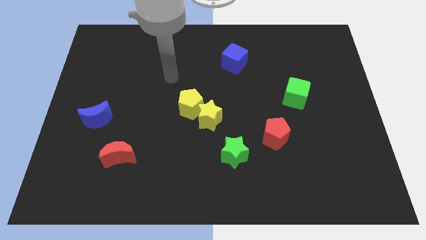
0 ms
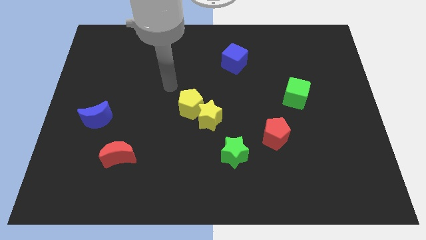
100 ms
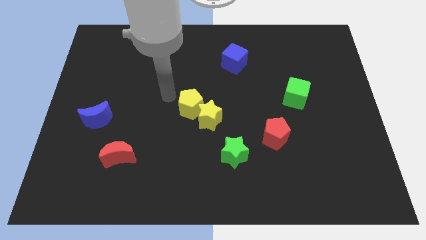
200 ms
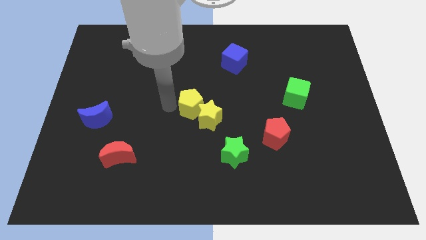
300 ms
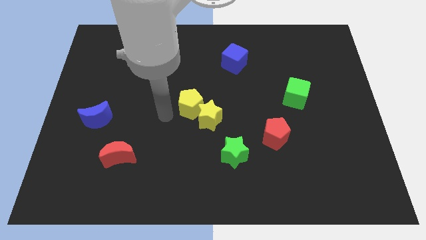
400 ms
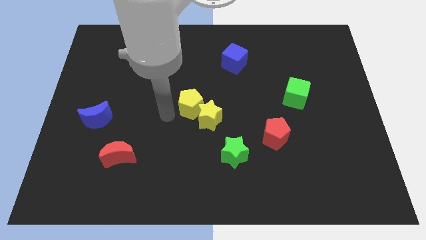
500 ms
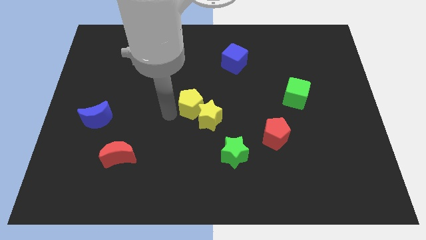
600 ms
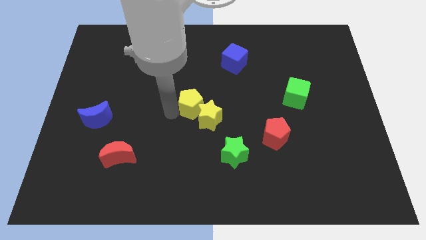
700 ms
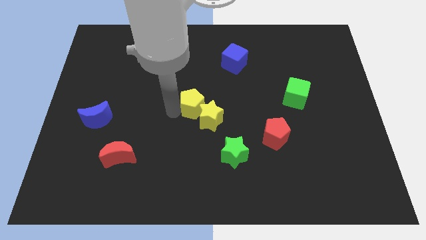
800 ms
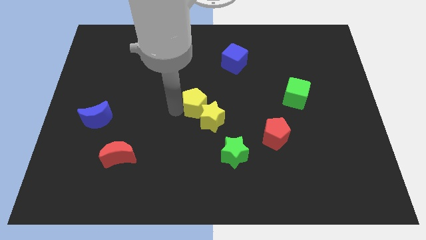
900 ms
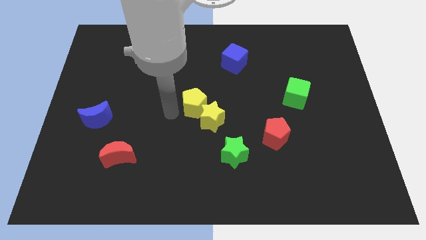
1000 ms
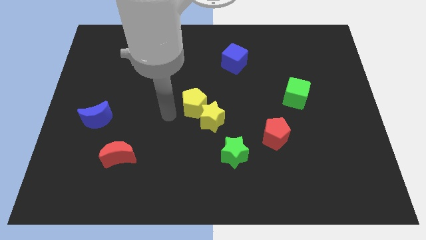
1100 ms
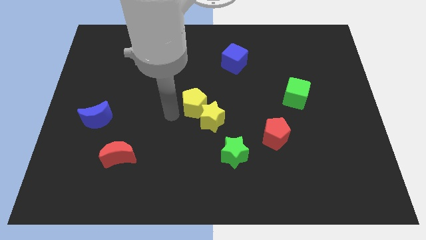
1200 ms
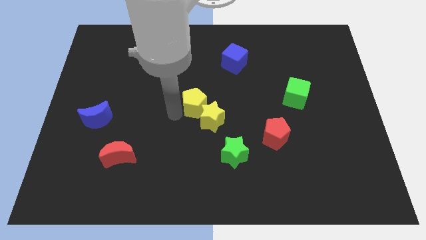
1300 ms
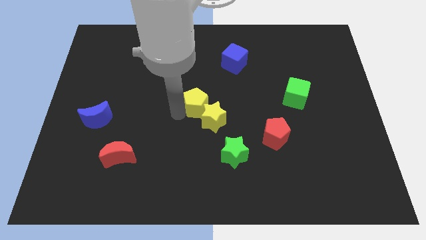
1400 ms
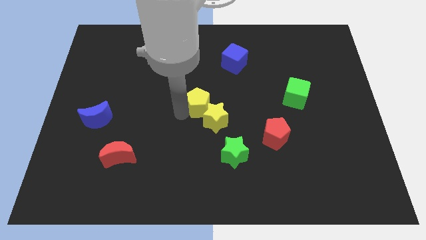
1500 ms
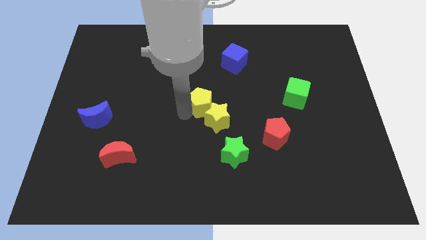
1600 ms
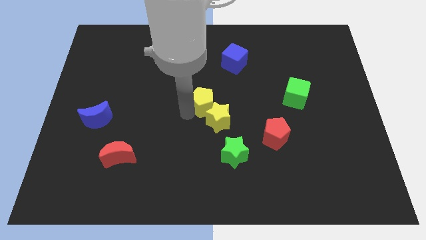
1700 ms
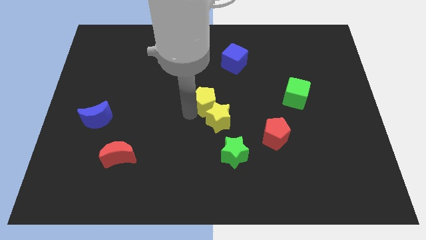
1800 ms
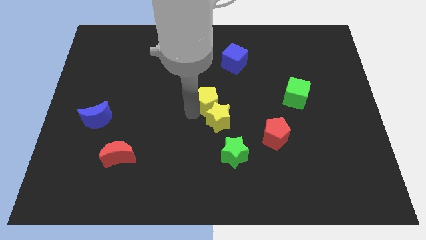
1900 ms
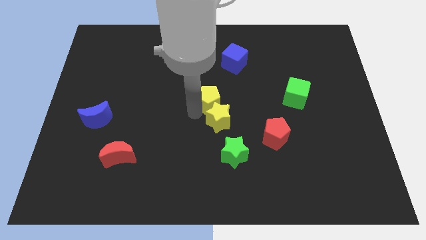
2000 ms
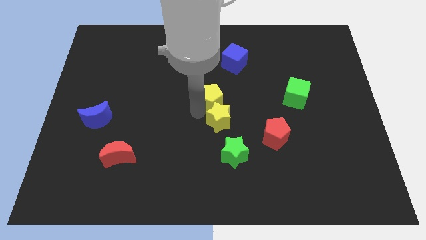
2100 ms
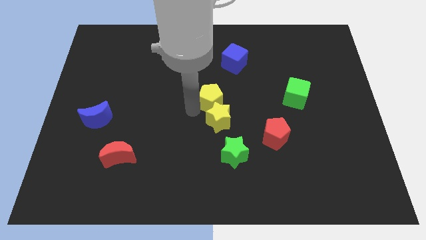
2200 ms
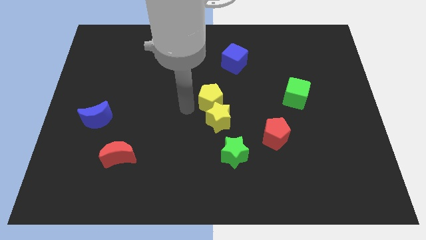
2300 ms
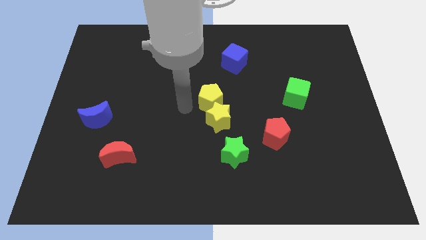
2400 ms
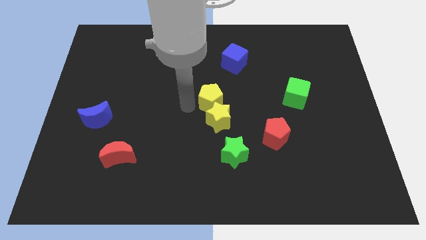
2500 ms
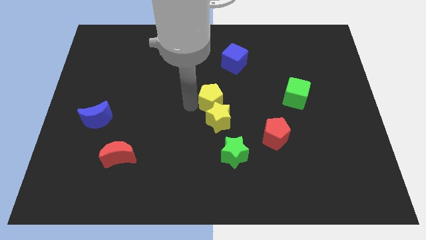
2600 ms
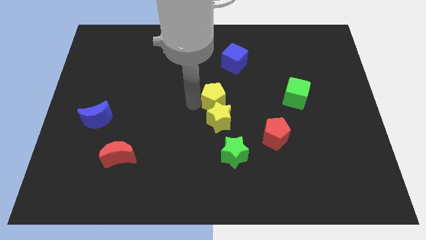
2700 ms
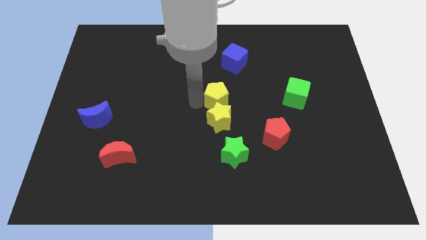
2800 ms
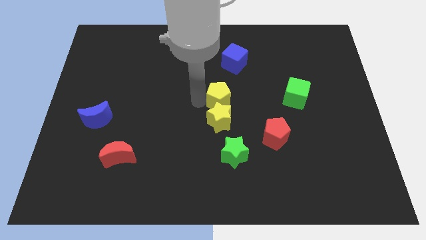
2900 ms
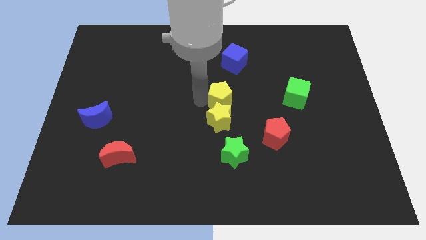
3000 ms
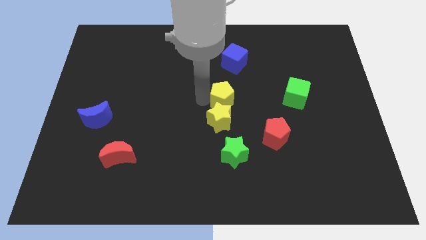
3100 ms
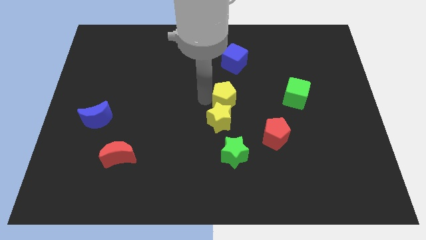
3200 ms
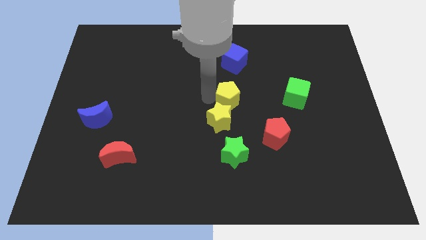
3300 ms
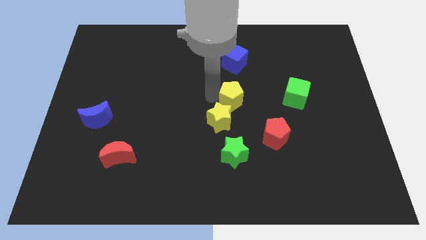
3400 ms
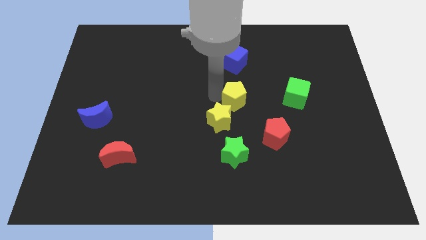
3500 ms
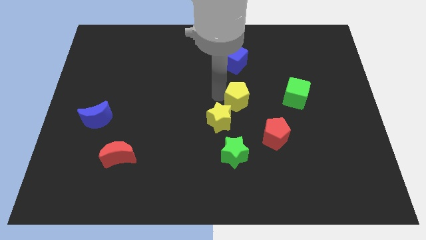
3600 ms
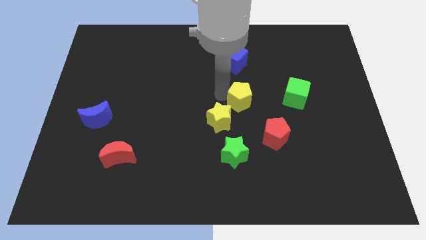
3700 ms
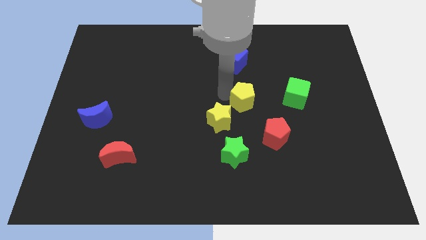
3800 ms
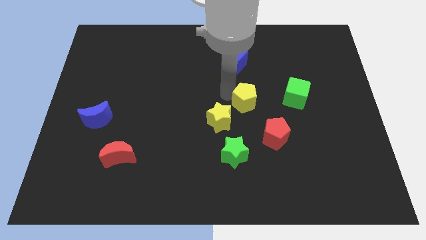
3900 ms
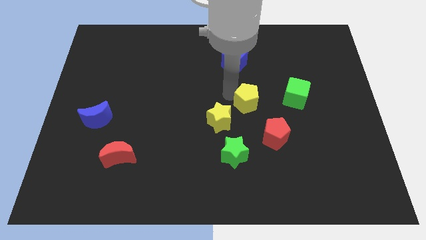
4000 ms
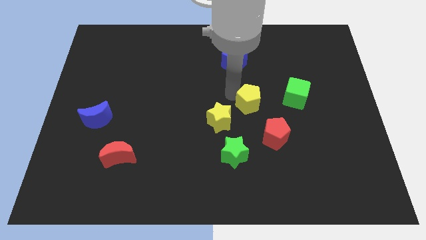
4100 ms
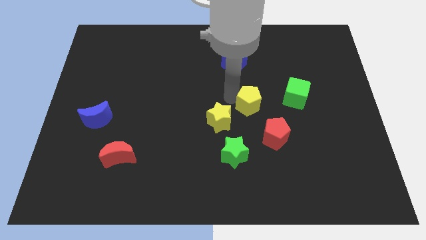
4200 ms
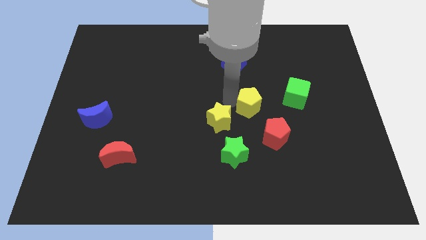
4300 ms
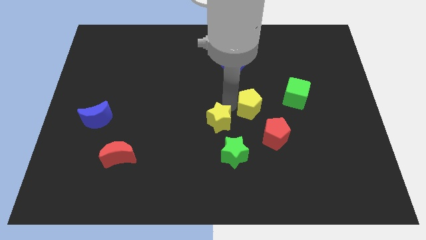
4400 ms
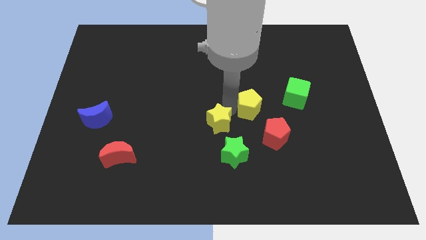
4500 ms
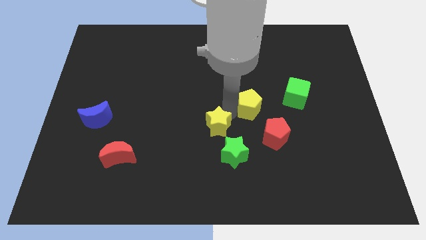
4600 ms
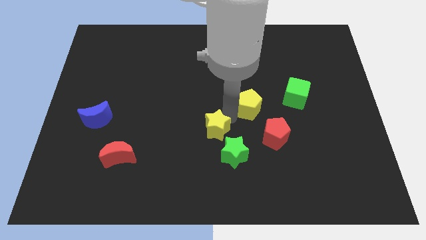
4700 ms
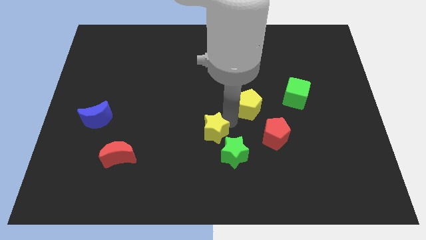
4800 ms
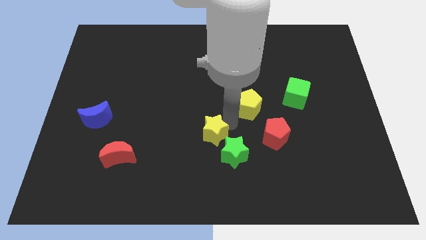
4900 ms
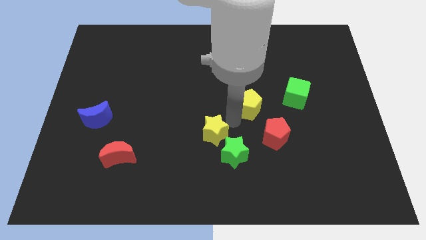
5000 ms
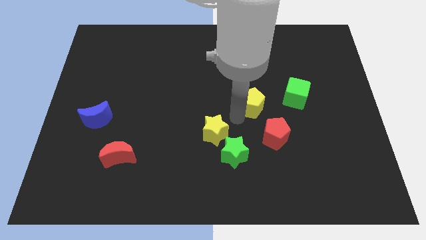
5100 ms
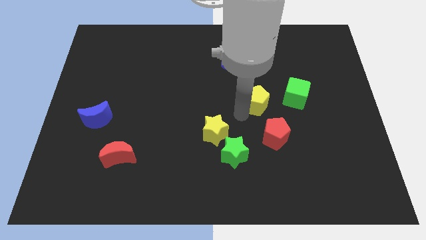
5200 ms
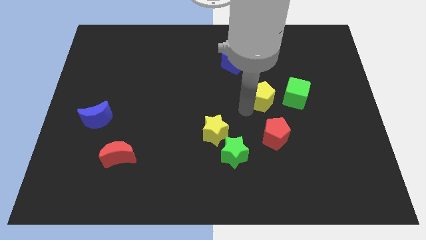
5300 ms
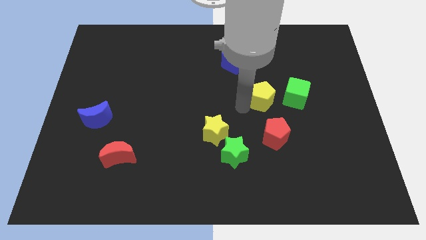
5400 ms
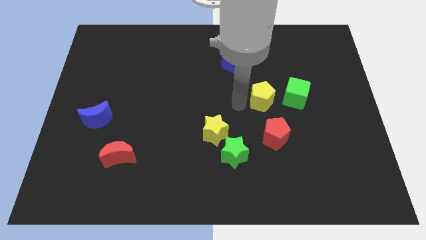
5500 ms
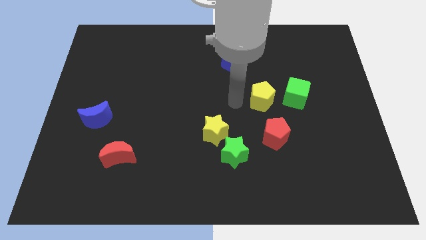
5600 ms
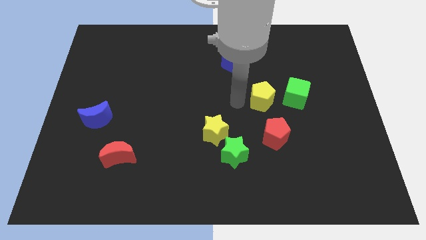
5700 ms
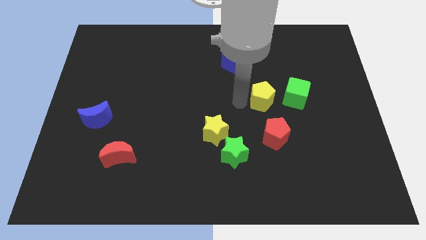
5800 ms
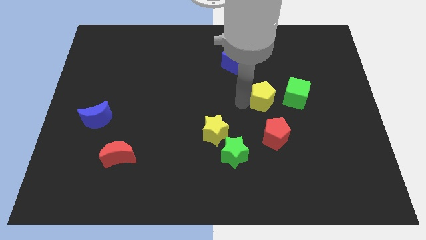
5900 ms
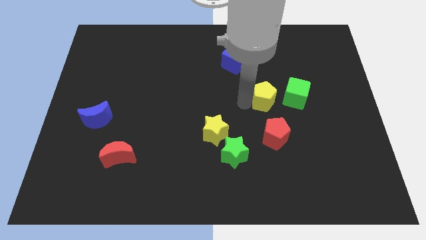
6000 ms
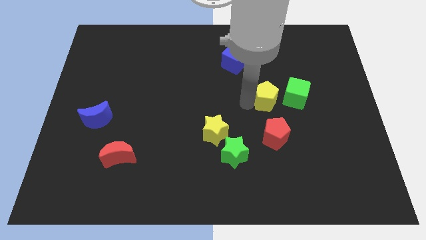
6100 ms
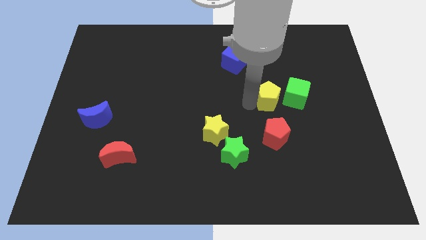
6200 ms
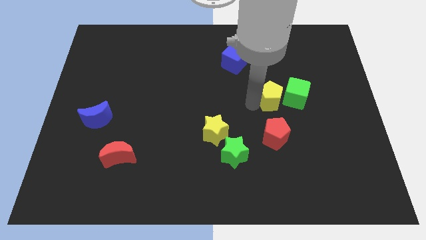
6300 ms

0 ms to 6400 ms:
put the yellow pentagon to the green cube

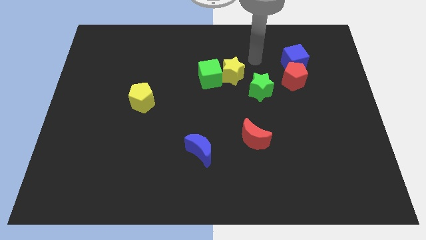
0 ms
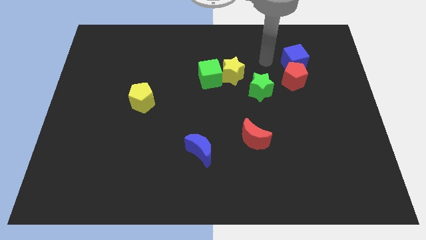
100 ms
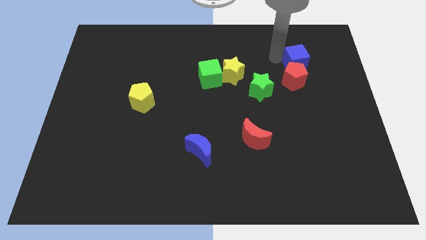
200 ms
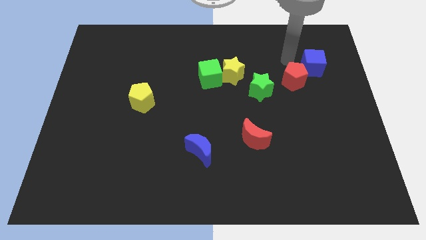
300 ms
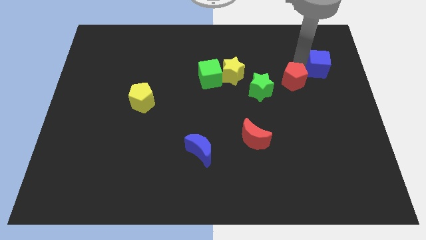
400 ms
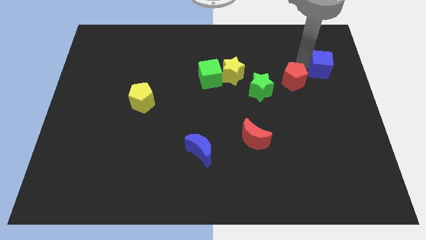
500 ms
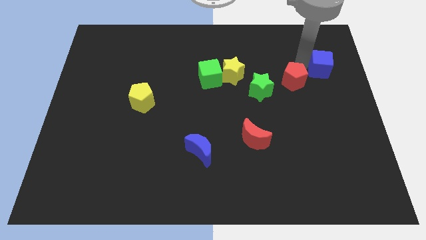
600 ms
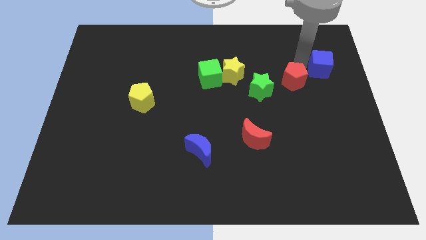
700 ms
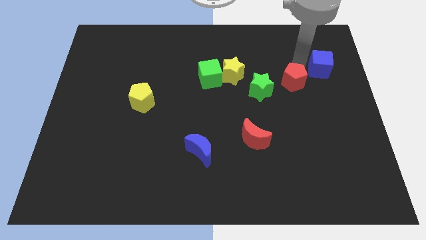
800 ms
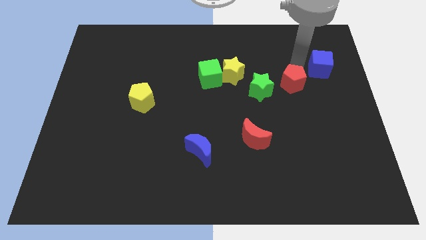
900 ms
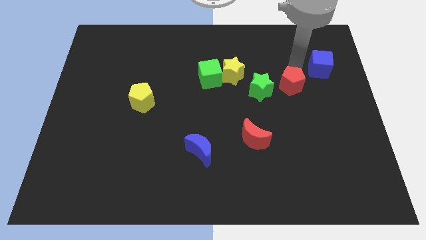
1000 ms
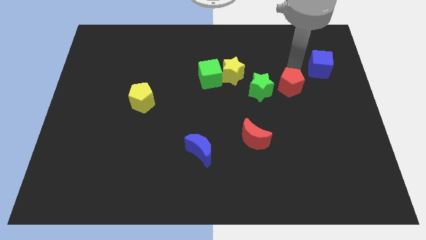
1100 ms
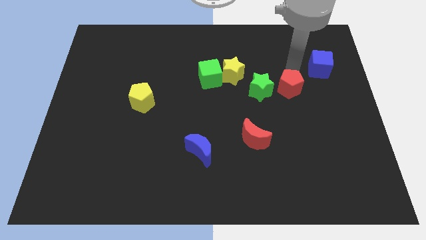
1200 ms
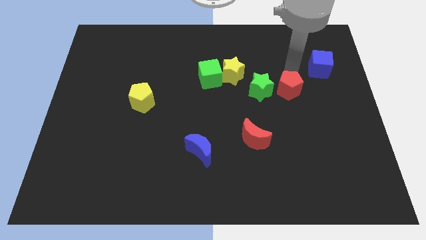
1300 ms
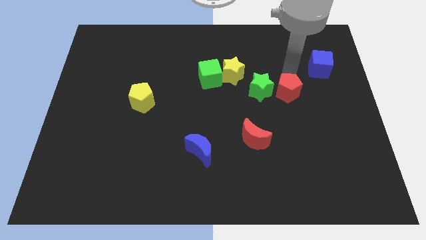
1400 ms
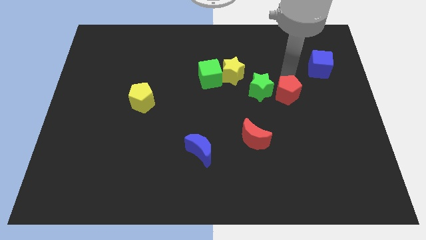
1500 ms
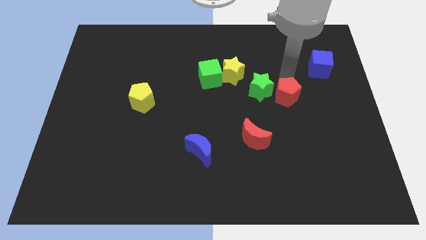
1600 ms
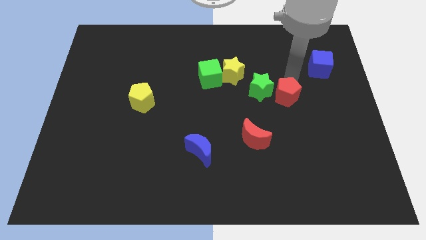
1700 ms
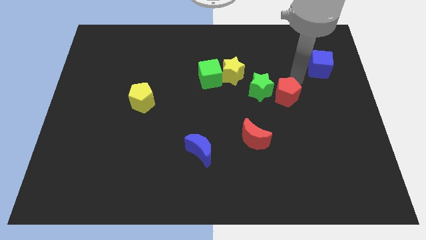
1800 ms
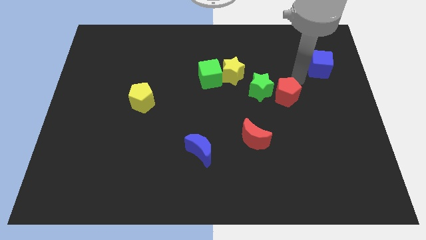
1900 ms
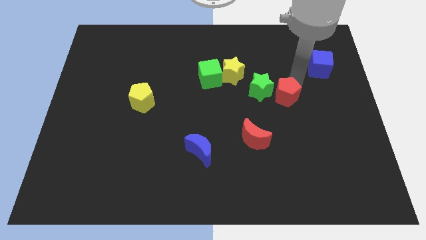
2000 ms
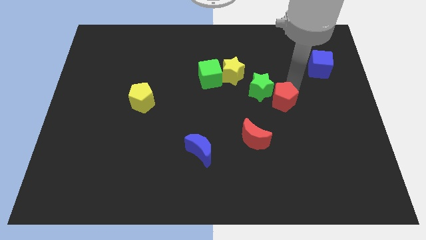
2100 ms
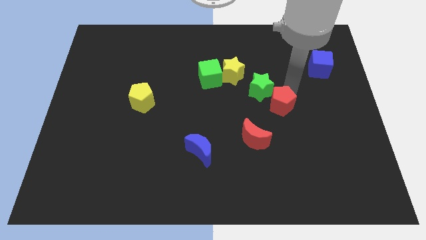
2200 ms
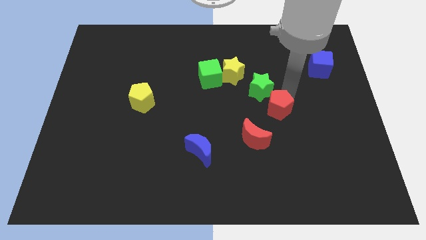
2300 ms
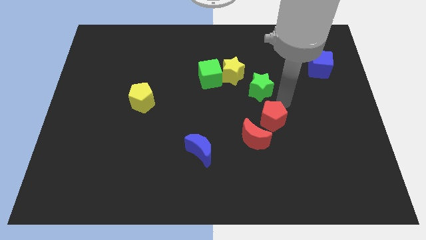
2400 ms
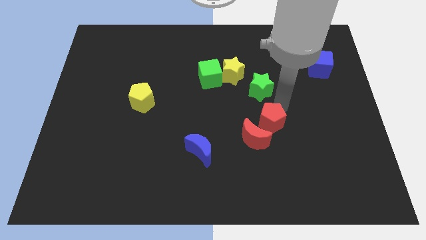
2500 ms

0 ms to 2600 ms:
put the red pentagon towards the red moon
